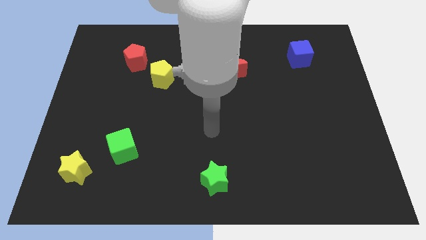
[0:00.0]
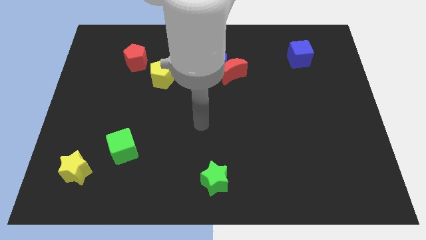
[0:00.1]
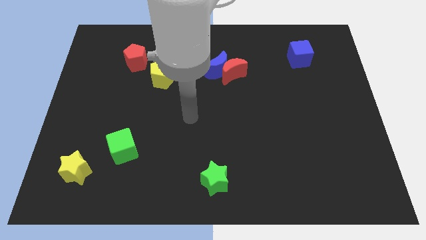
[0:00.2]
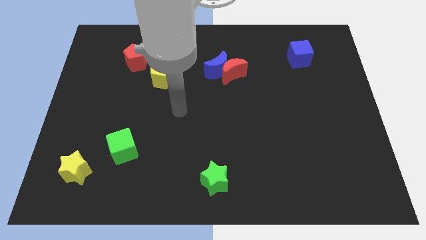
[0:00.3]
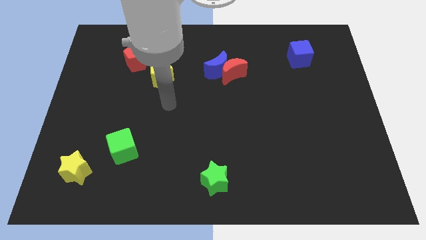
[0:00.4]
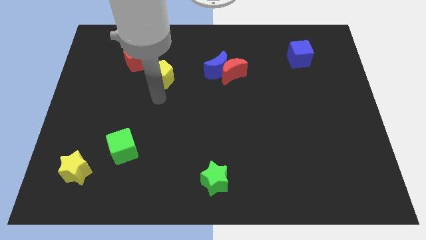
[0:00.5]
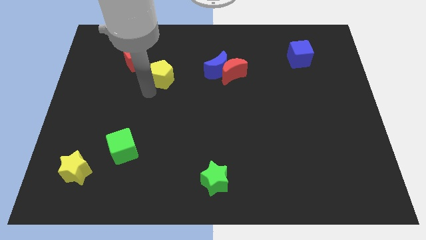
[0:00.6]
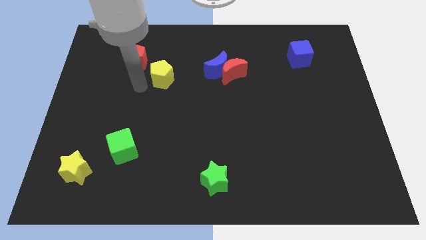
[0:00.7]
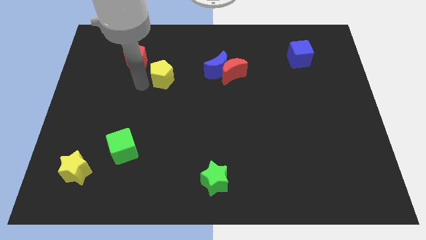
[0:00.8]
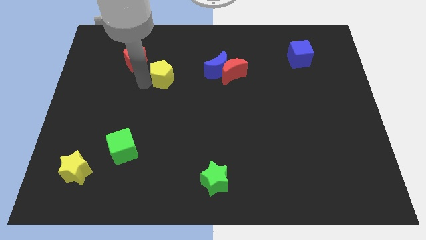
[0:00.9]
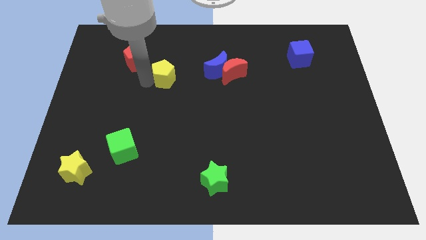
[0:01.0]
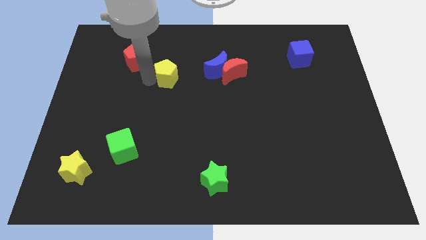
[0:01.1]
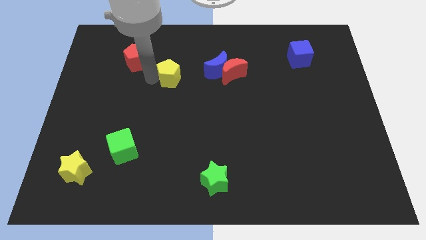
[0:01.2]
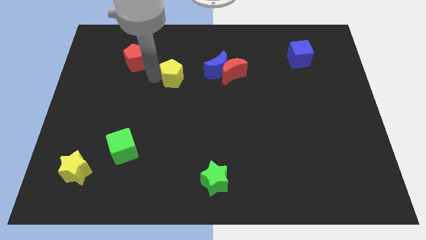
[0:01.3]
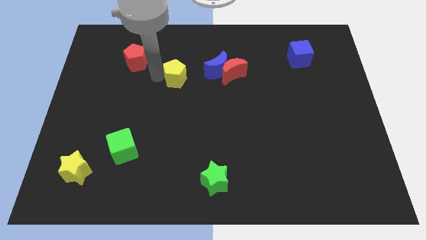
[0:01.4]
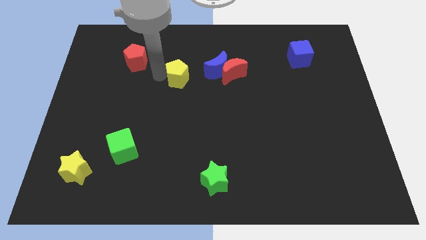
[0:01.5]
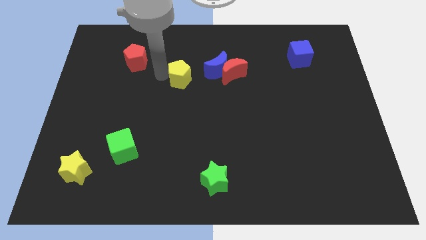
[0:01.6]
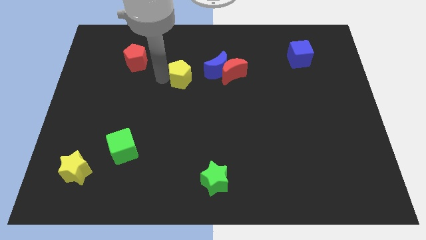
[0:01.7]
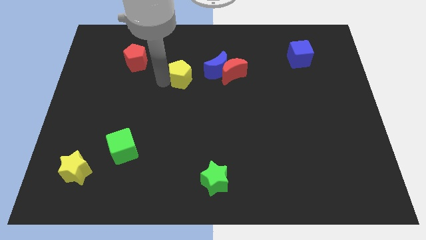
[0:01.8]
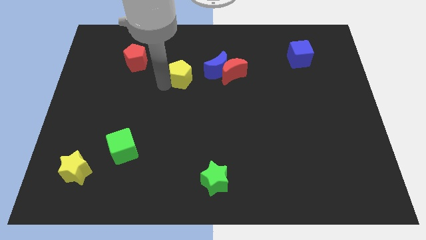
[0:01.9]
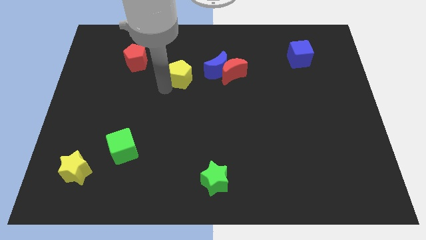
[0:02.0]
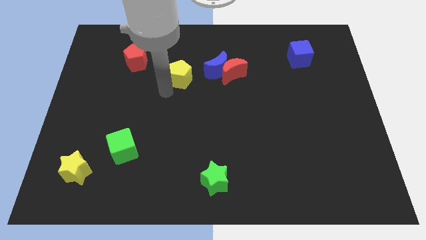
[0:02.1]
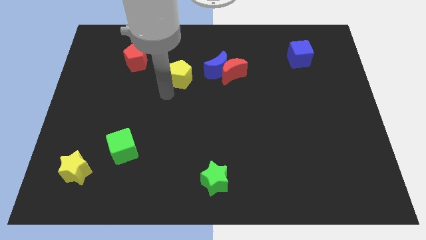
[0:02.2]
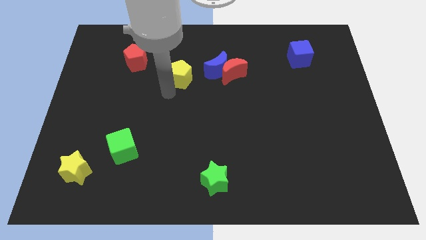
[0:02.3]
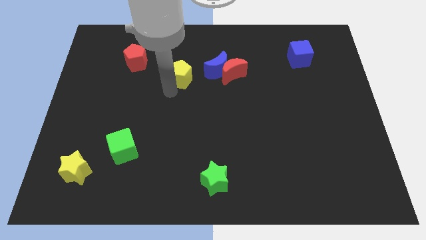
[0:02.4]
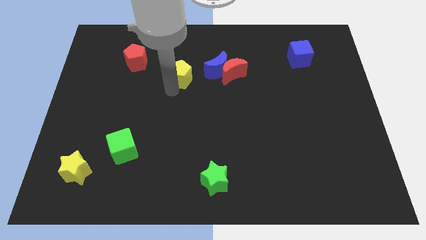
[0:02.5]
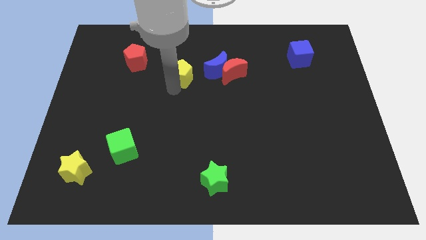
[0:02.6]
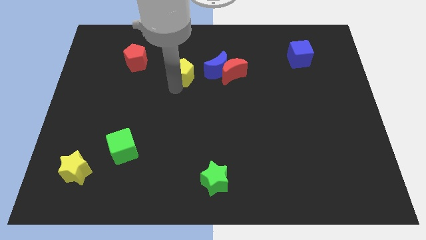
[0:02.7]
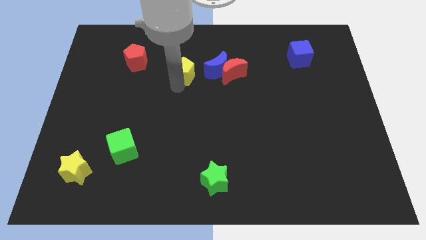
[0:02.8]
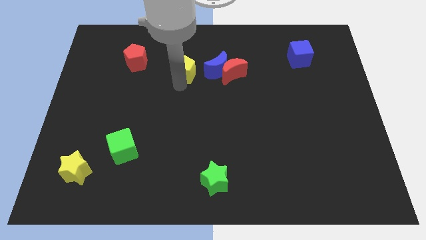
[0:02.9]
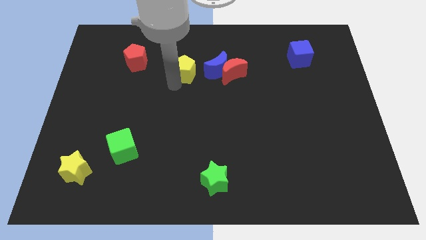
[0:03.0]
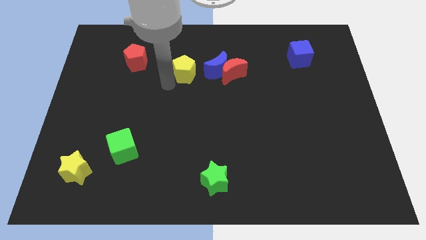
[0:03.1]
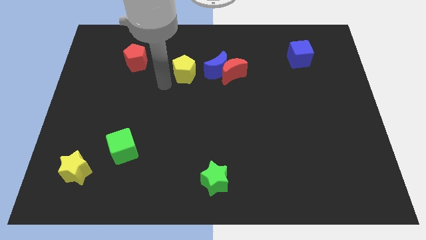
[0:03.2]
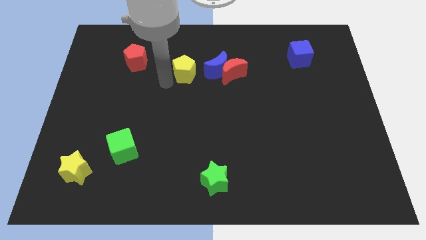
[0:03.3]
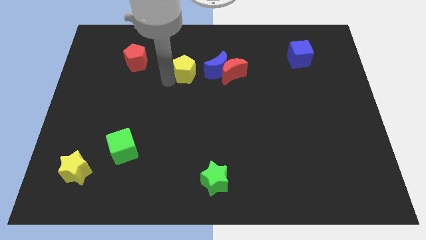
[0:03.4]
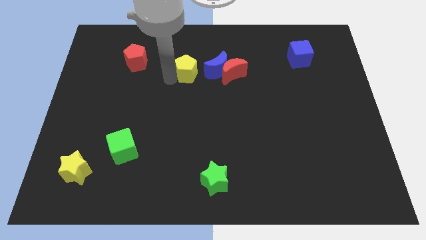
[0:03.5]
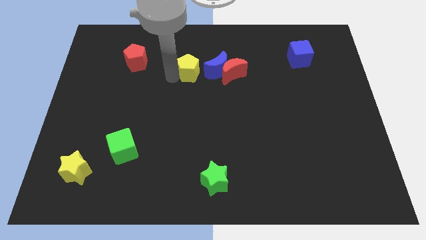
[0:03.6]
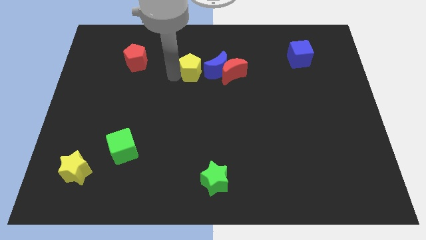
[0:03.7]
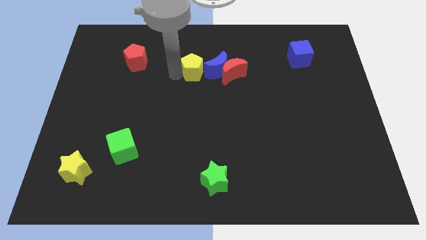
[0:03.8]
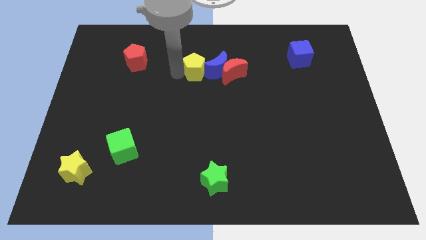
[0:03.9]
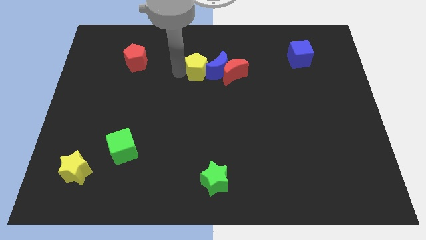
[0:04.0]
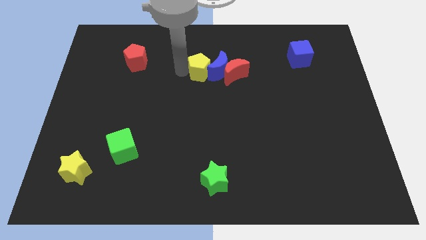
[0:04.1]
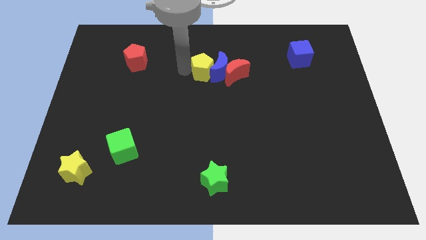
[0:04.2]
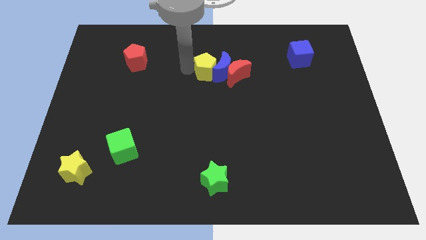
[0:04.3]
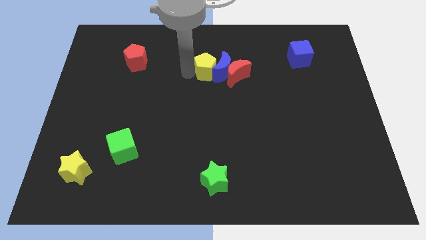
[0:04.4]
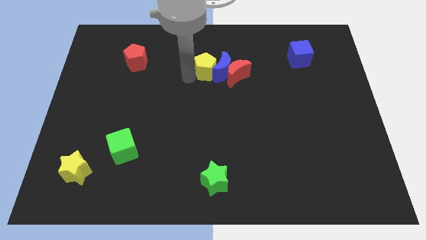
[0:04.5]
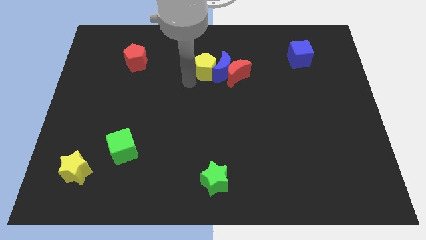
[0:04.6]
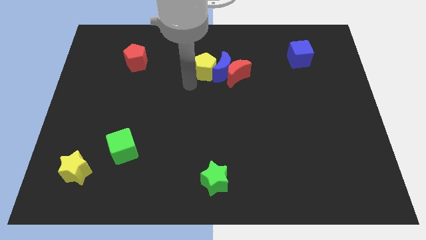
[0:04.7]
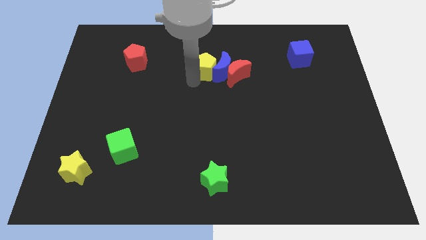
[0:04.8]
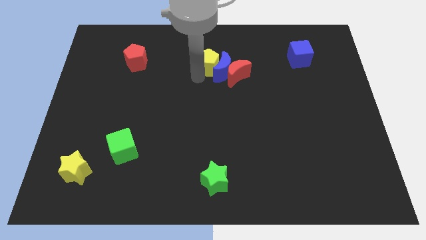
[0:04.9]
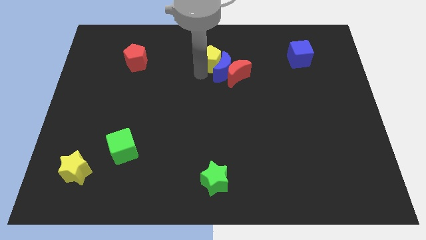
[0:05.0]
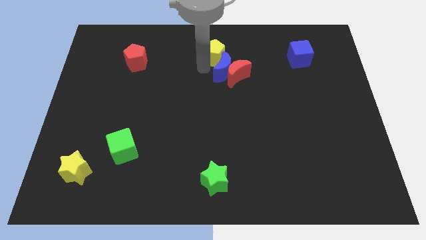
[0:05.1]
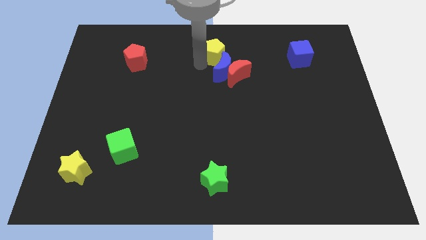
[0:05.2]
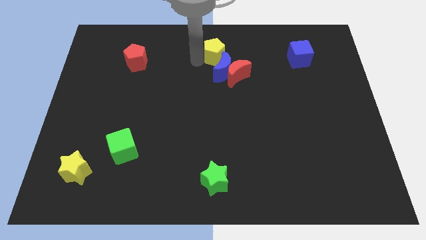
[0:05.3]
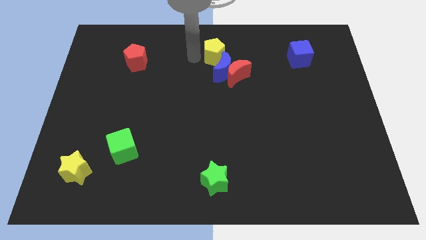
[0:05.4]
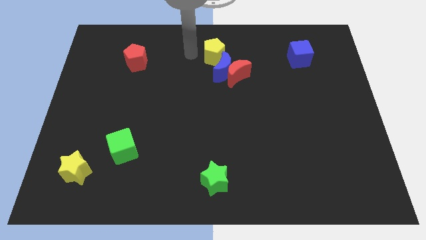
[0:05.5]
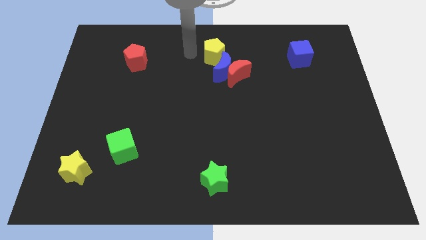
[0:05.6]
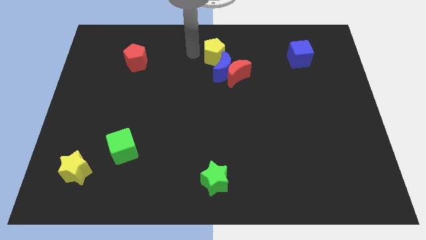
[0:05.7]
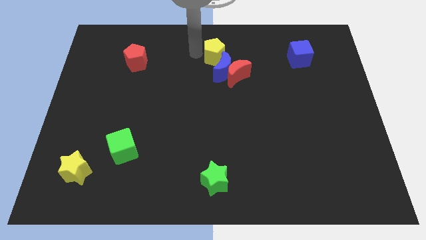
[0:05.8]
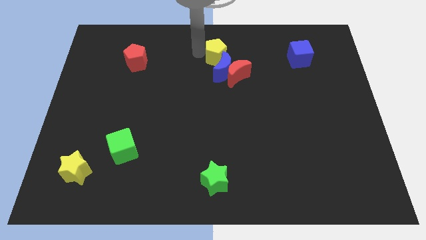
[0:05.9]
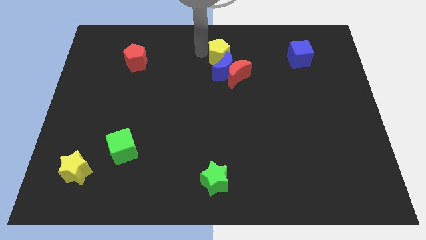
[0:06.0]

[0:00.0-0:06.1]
push the yellow pentagon to the top right side of the blue moon

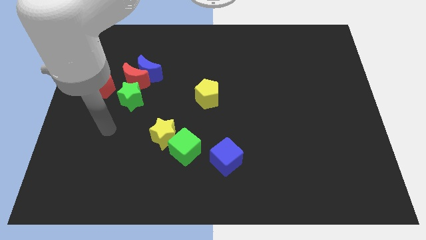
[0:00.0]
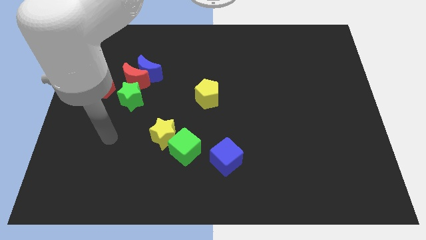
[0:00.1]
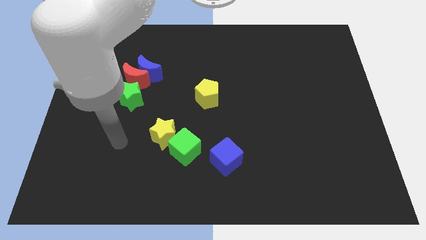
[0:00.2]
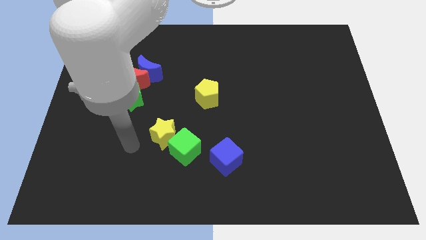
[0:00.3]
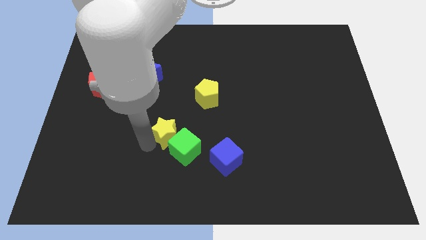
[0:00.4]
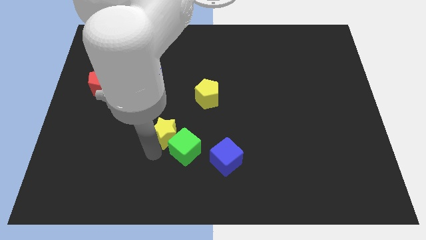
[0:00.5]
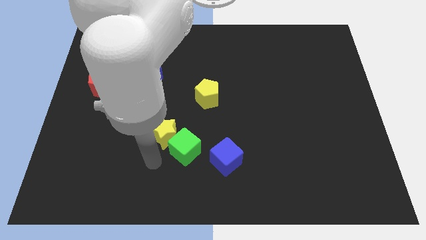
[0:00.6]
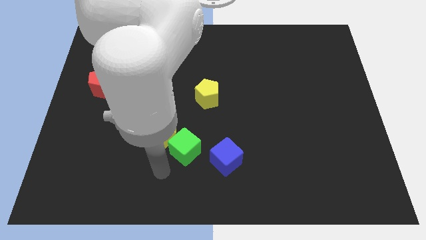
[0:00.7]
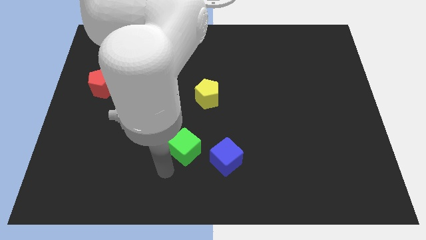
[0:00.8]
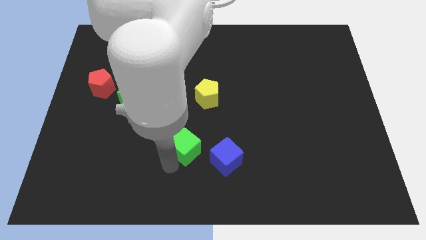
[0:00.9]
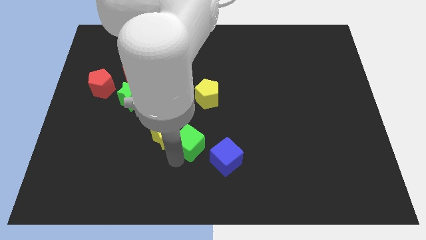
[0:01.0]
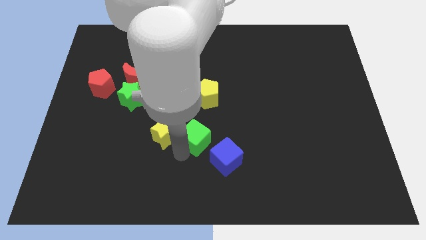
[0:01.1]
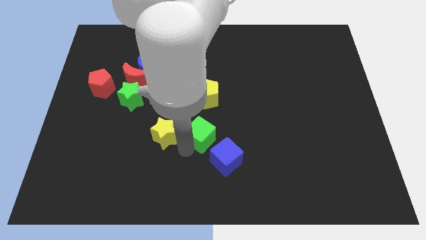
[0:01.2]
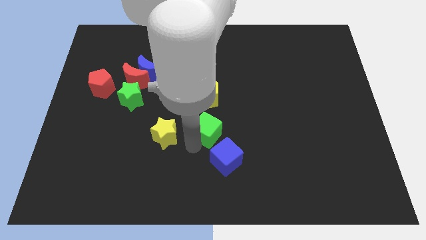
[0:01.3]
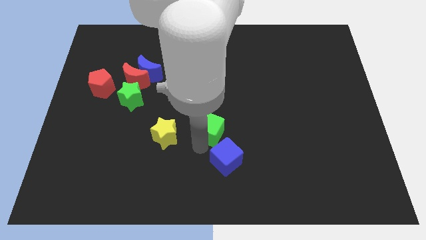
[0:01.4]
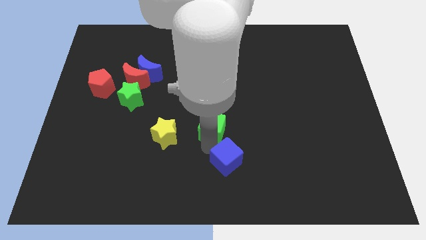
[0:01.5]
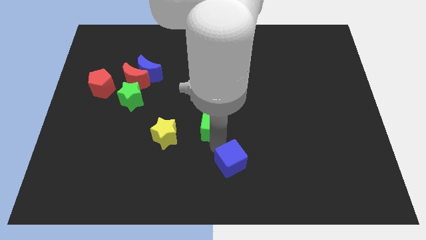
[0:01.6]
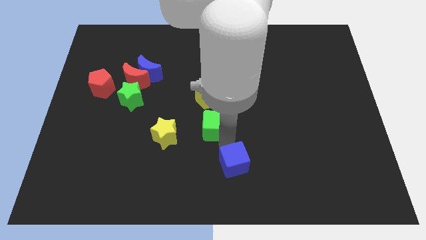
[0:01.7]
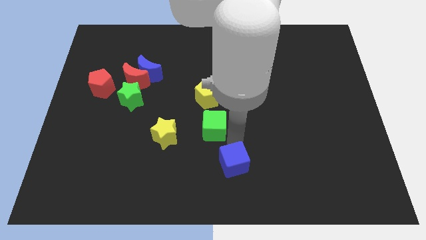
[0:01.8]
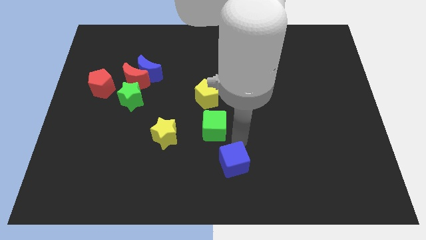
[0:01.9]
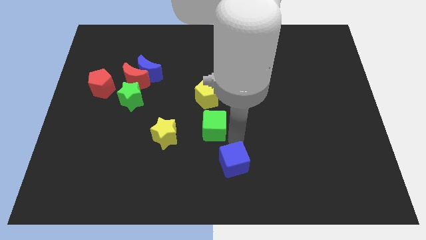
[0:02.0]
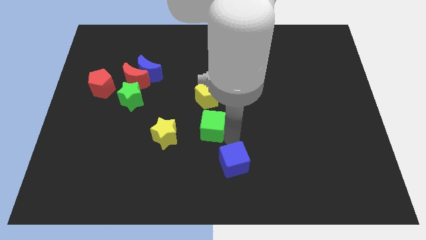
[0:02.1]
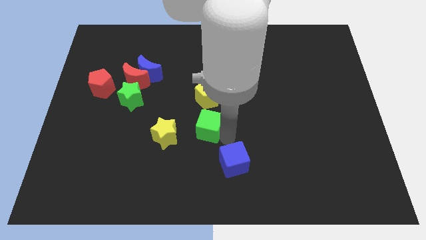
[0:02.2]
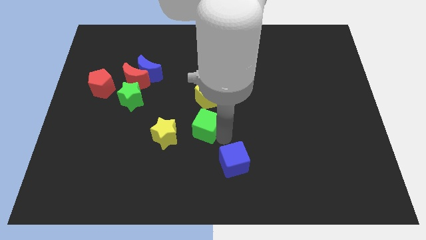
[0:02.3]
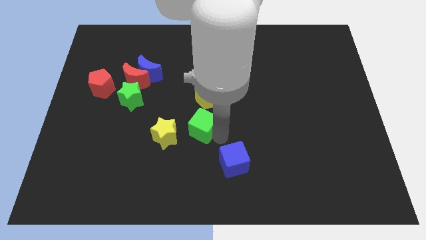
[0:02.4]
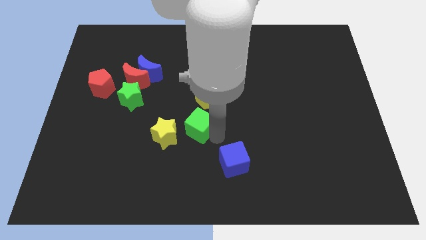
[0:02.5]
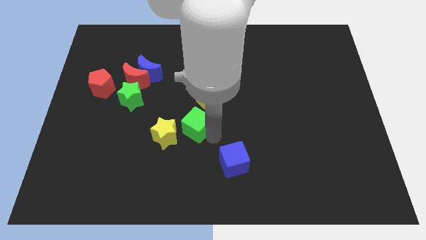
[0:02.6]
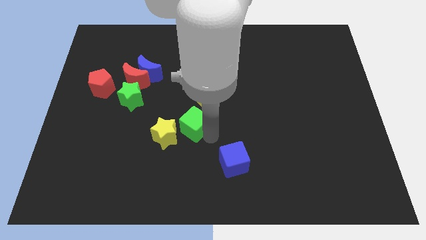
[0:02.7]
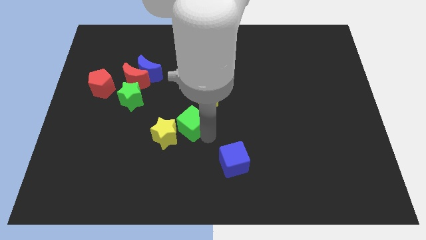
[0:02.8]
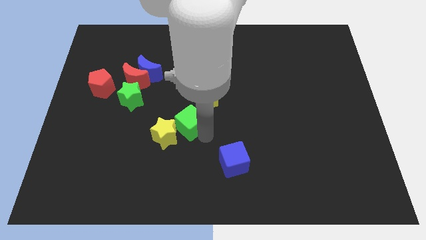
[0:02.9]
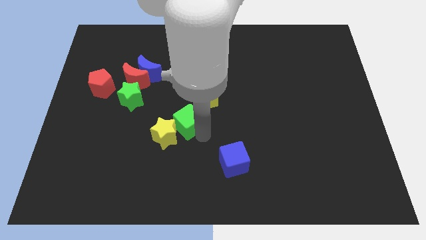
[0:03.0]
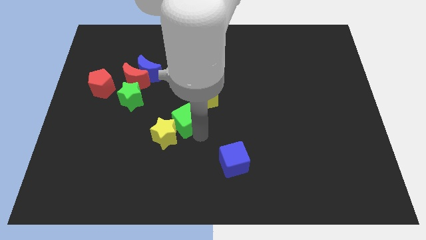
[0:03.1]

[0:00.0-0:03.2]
put the green cube above the yellow star
